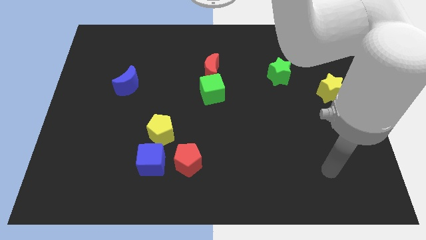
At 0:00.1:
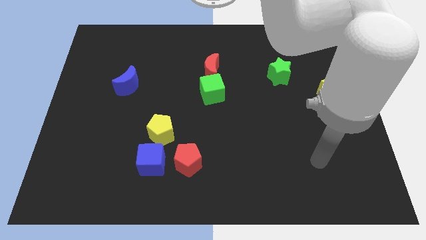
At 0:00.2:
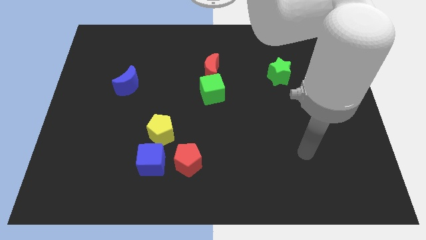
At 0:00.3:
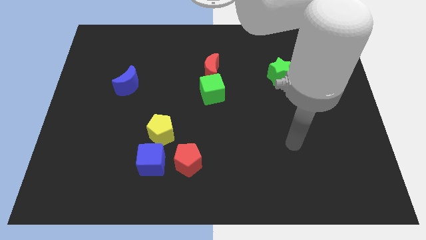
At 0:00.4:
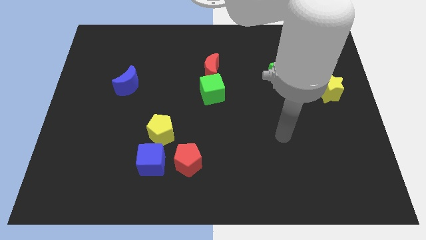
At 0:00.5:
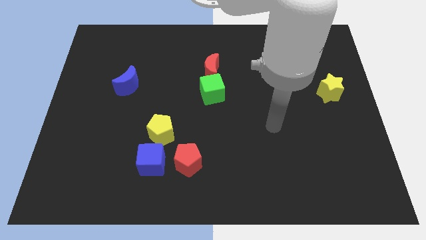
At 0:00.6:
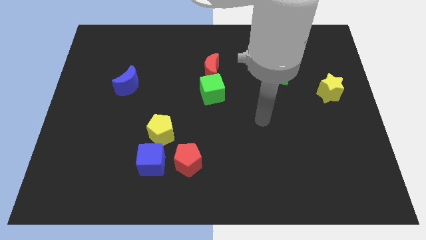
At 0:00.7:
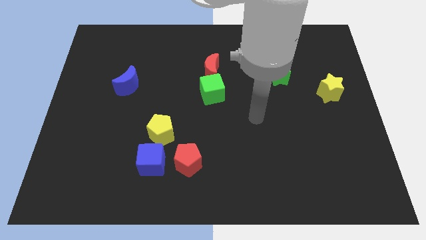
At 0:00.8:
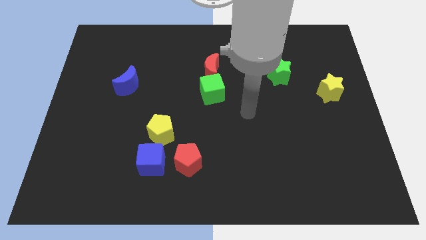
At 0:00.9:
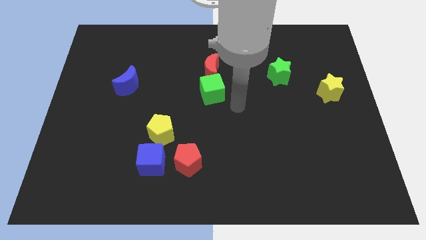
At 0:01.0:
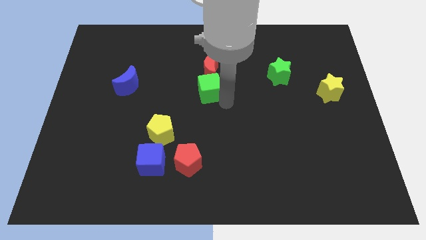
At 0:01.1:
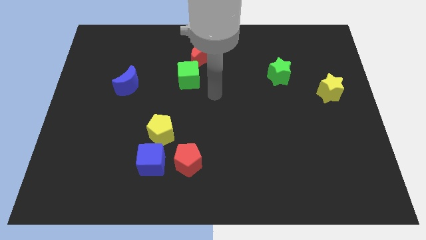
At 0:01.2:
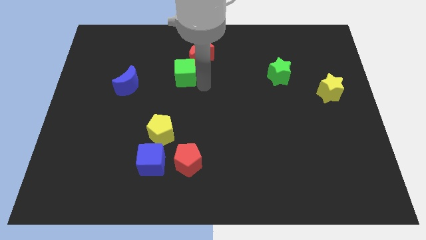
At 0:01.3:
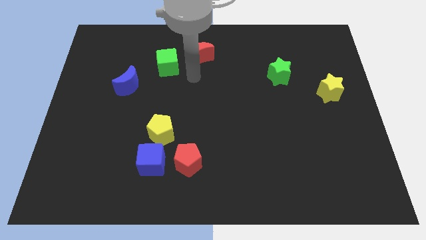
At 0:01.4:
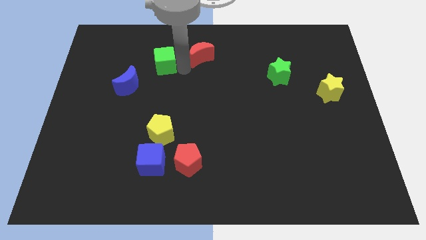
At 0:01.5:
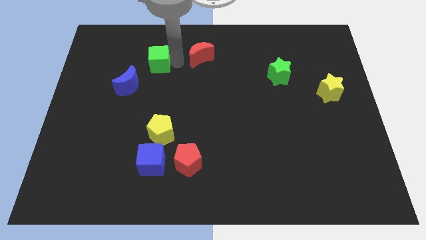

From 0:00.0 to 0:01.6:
move the red moon away from the green cube

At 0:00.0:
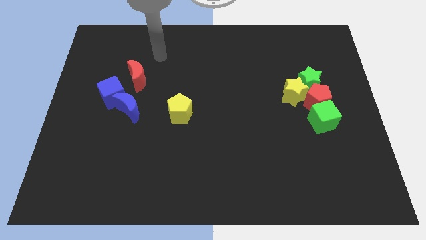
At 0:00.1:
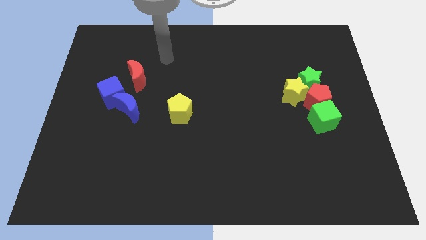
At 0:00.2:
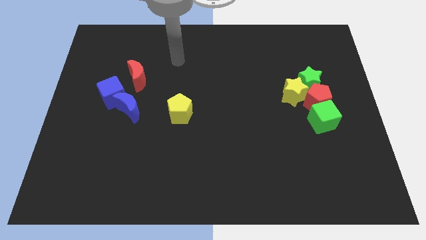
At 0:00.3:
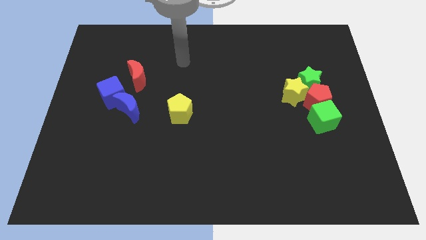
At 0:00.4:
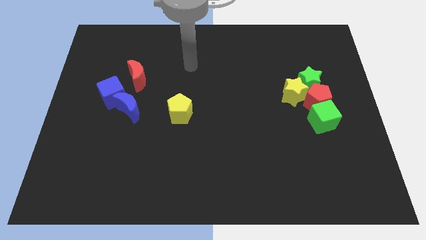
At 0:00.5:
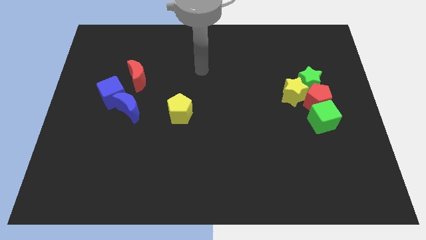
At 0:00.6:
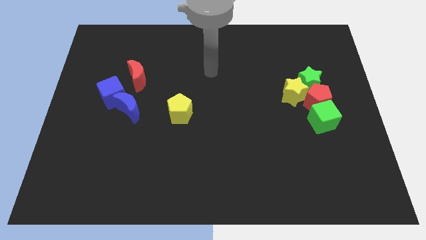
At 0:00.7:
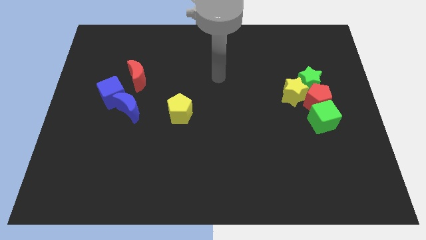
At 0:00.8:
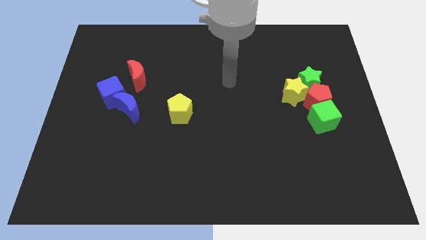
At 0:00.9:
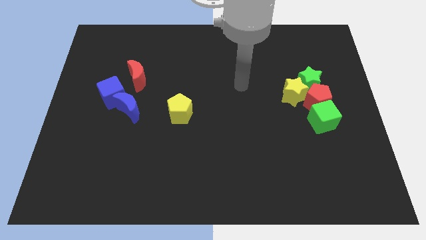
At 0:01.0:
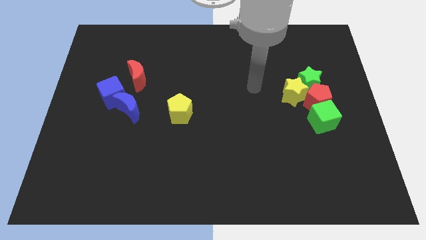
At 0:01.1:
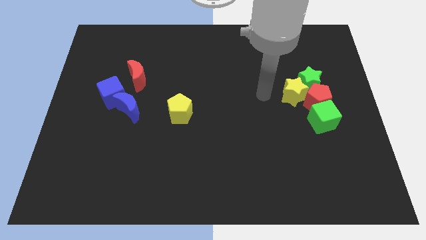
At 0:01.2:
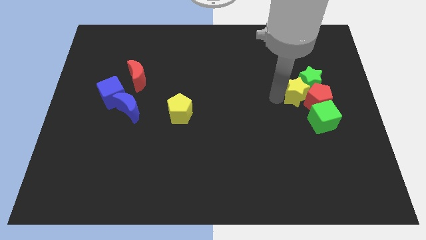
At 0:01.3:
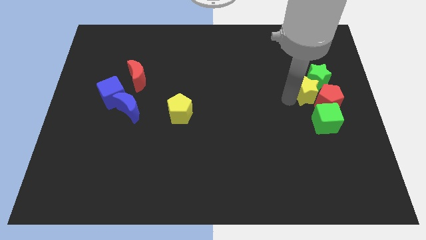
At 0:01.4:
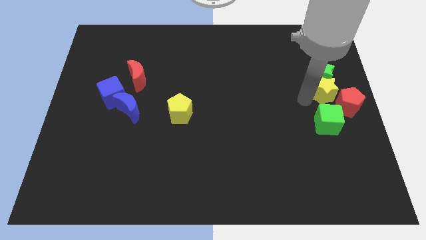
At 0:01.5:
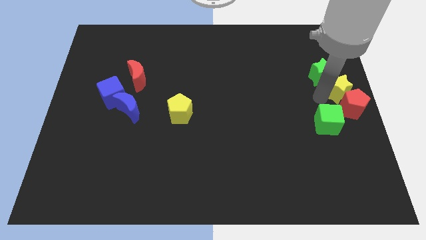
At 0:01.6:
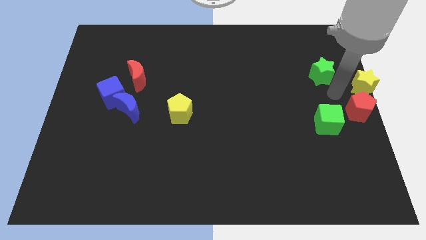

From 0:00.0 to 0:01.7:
move the green star away from the red pentagon and yellow star

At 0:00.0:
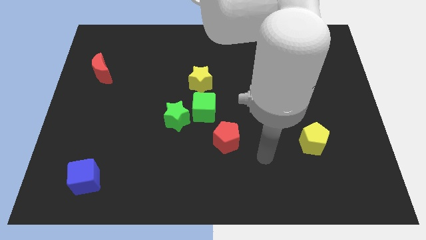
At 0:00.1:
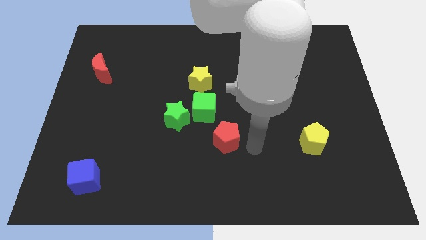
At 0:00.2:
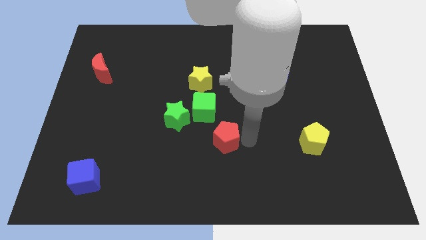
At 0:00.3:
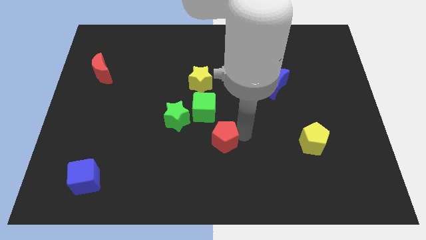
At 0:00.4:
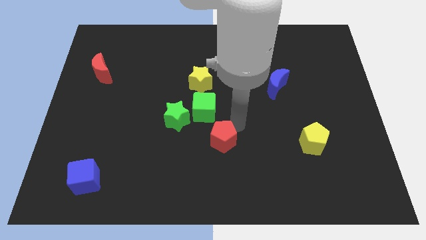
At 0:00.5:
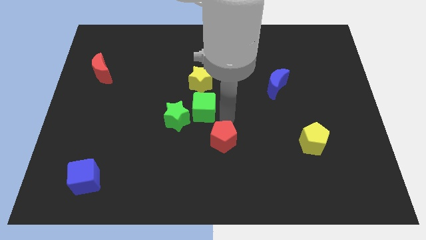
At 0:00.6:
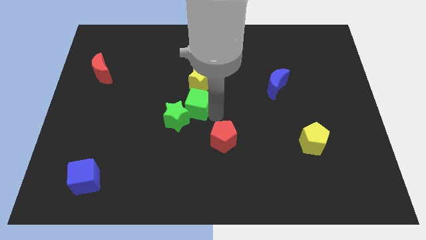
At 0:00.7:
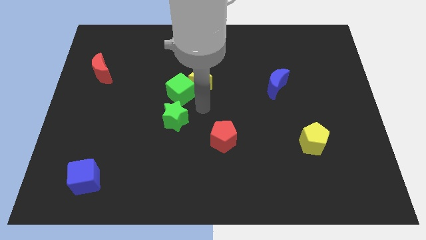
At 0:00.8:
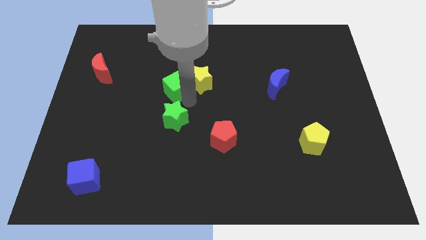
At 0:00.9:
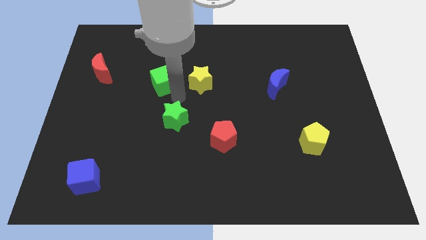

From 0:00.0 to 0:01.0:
pull the green star apart from the green cube

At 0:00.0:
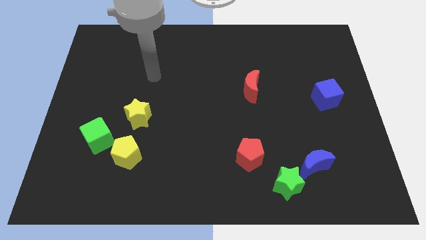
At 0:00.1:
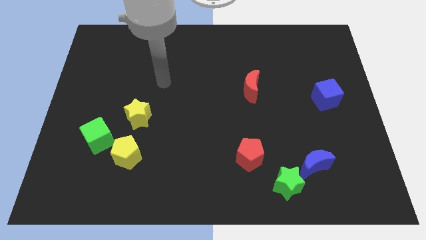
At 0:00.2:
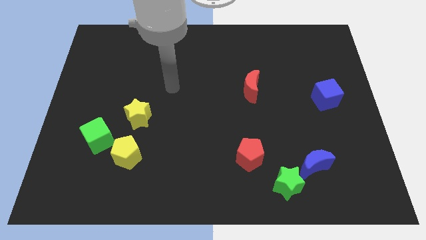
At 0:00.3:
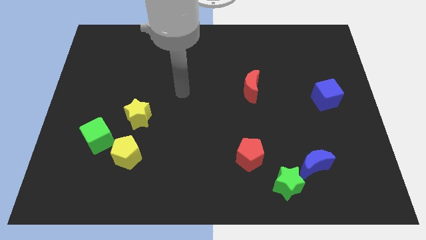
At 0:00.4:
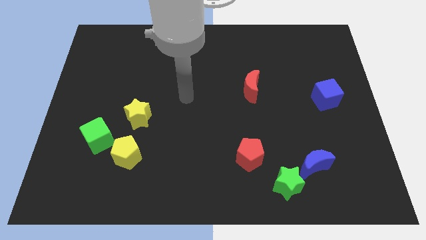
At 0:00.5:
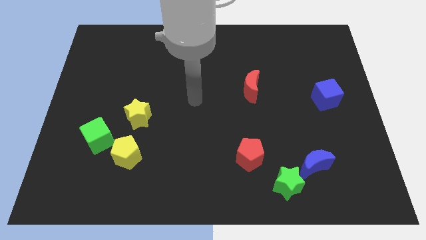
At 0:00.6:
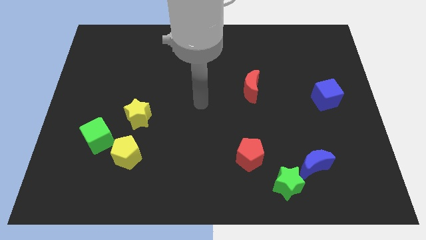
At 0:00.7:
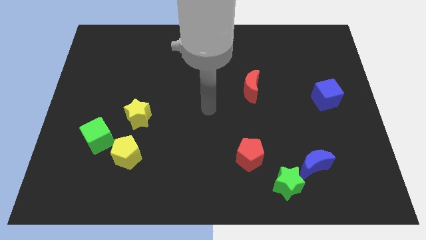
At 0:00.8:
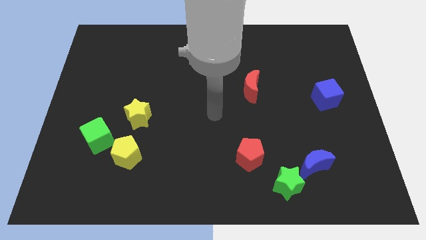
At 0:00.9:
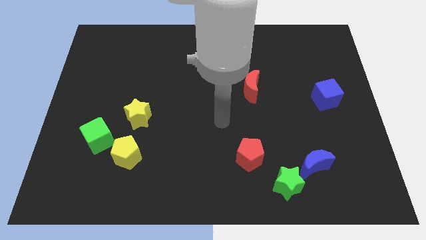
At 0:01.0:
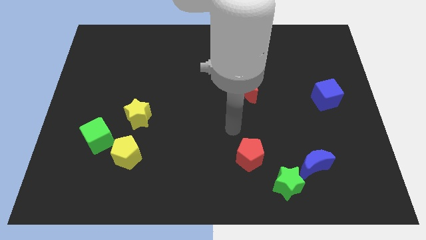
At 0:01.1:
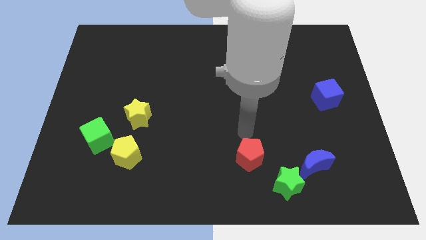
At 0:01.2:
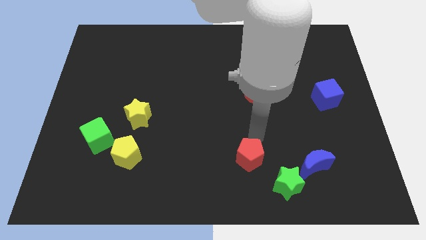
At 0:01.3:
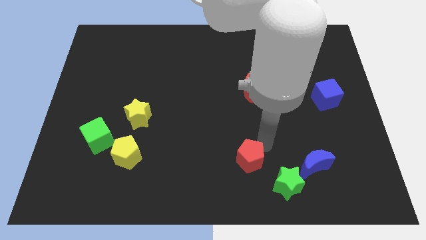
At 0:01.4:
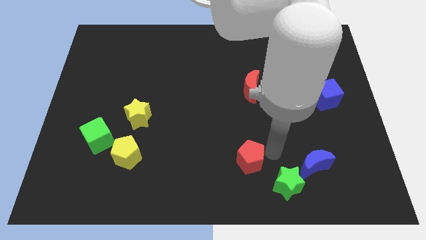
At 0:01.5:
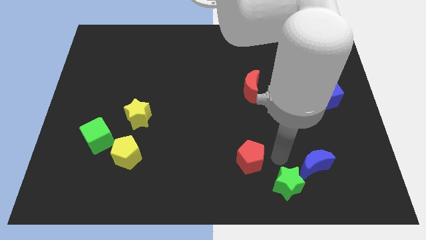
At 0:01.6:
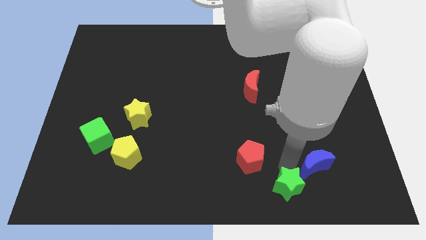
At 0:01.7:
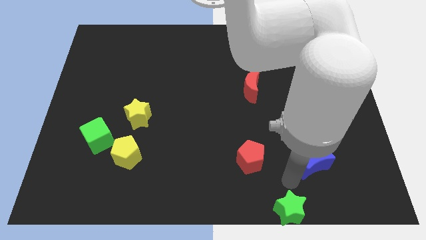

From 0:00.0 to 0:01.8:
move the blue moon away from the green star

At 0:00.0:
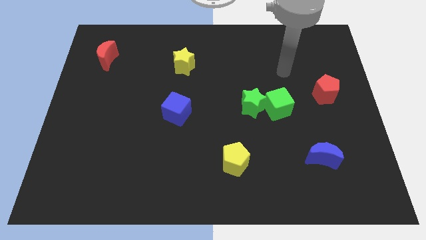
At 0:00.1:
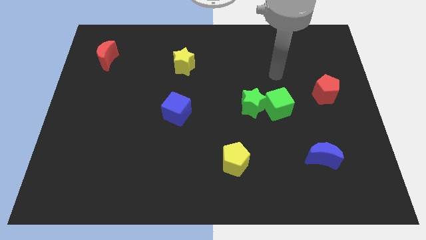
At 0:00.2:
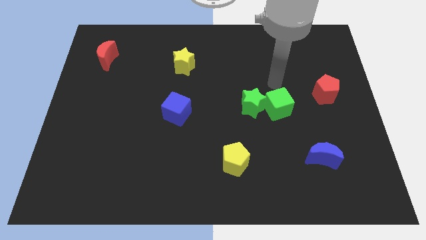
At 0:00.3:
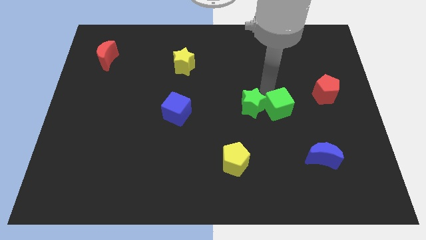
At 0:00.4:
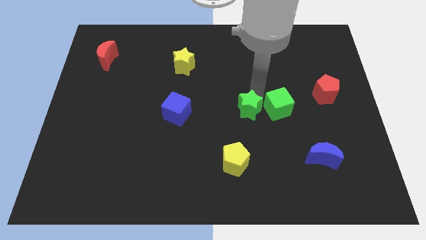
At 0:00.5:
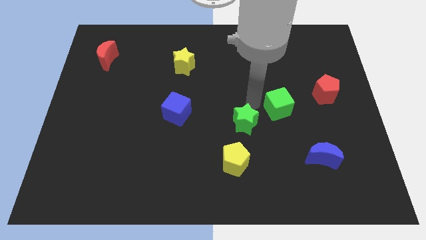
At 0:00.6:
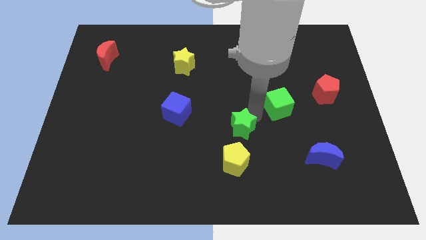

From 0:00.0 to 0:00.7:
separate the green cube from the green star

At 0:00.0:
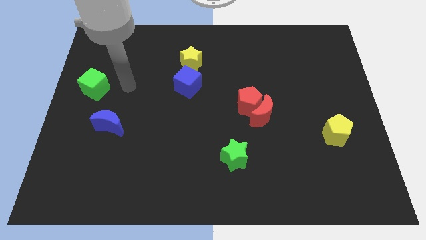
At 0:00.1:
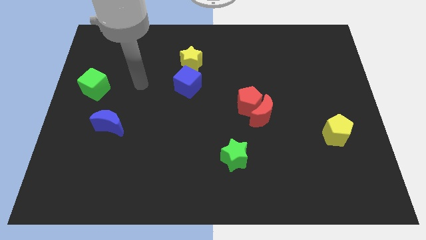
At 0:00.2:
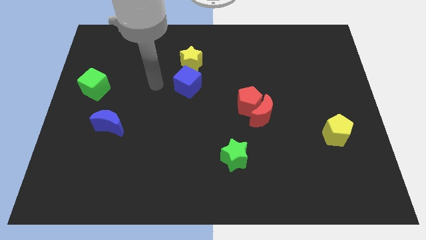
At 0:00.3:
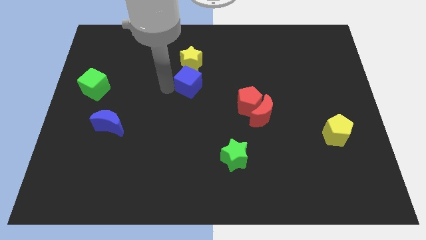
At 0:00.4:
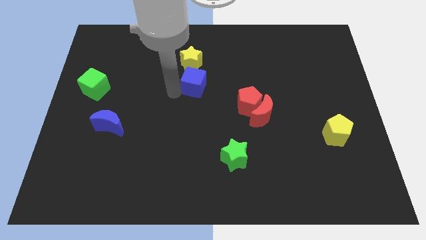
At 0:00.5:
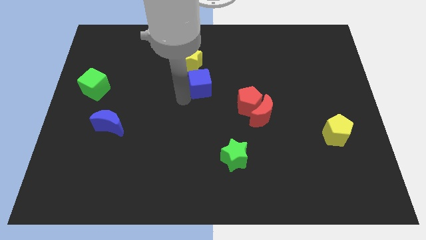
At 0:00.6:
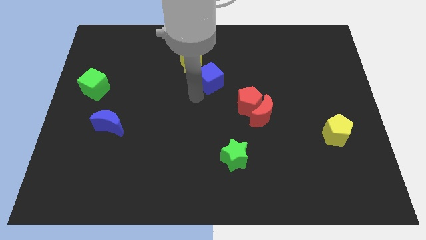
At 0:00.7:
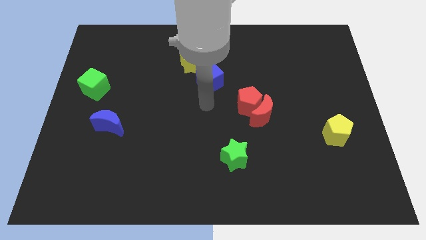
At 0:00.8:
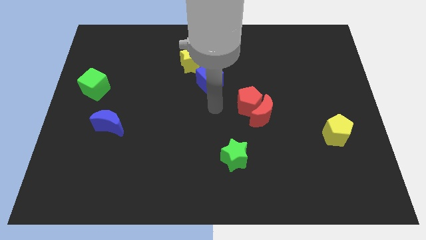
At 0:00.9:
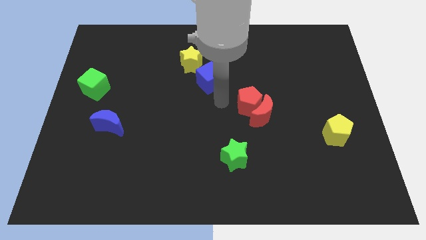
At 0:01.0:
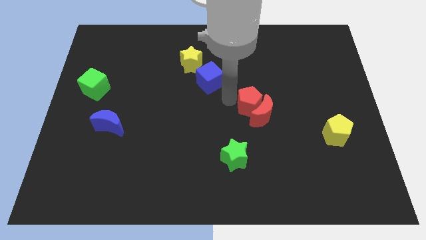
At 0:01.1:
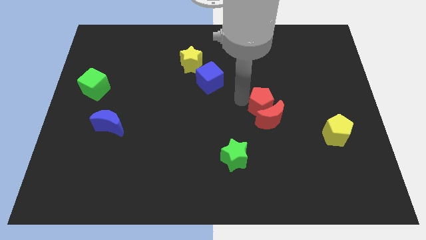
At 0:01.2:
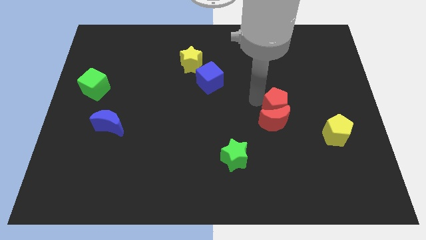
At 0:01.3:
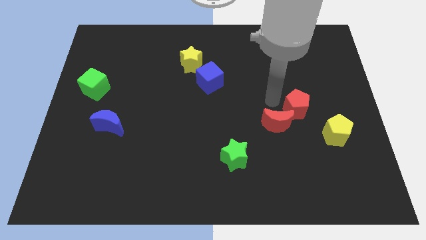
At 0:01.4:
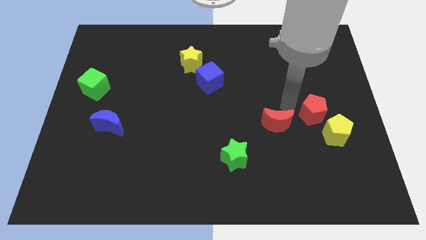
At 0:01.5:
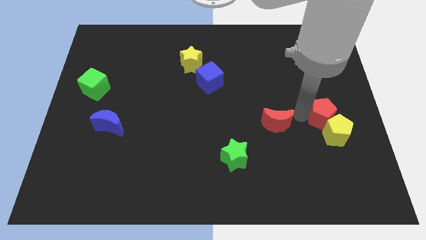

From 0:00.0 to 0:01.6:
move the red moon away from the red pentagon

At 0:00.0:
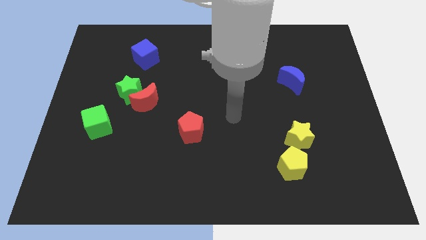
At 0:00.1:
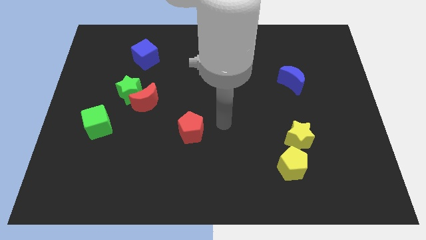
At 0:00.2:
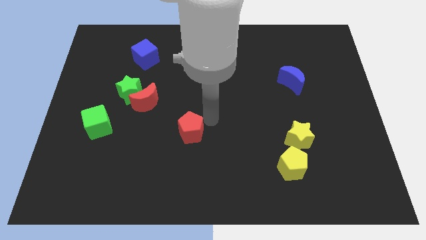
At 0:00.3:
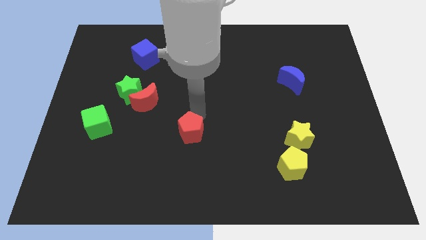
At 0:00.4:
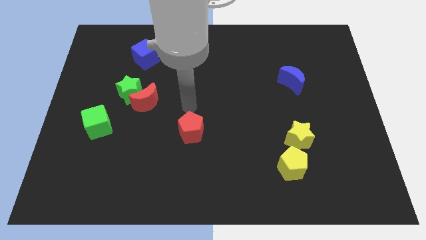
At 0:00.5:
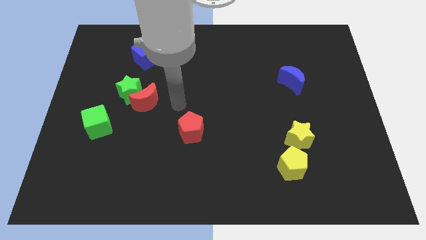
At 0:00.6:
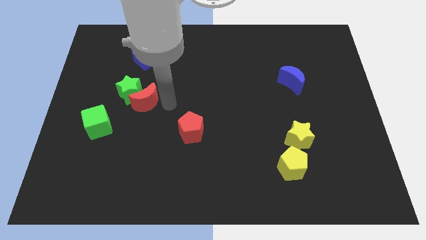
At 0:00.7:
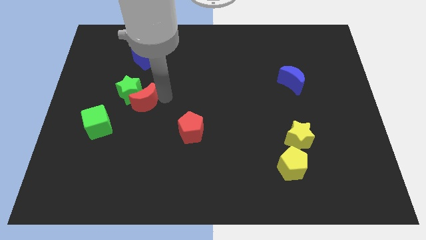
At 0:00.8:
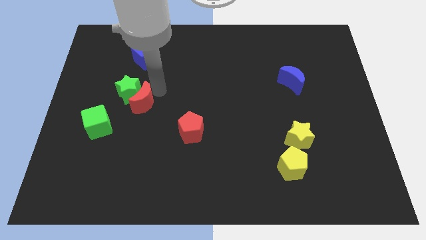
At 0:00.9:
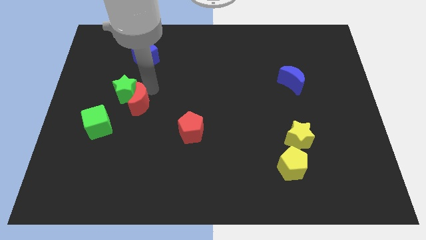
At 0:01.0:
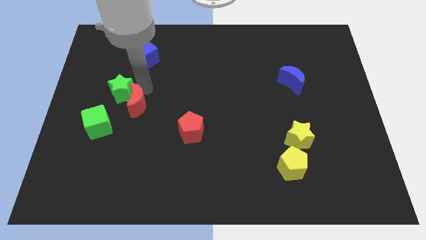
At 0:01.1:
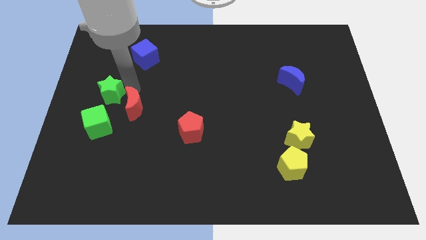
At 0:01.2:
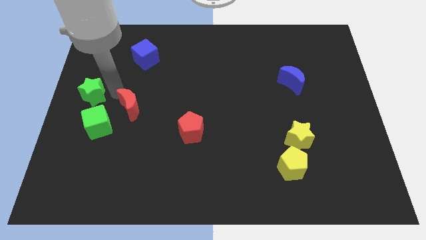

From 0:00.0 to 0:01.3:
separate the red moon from the green star
